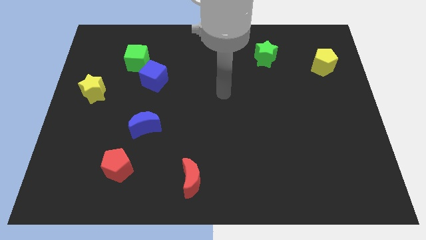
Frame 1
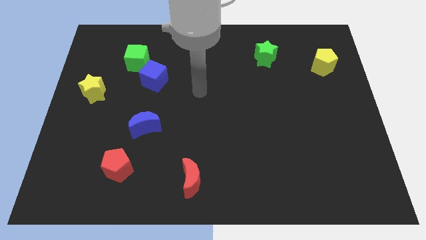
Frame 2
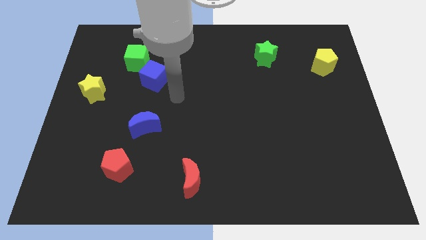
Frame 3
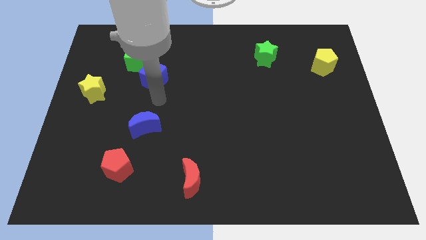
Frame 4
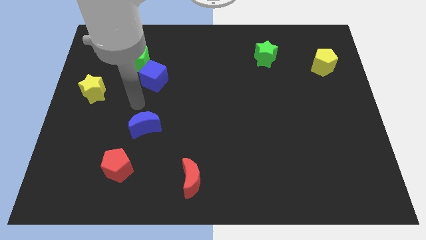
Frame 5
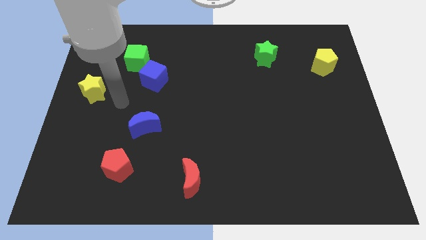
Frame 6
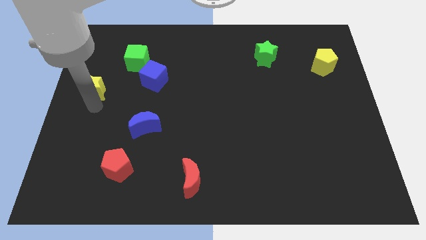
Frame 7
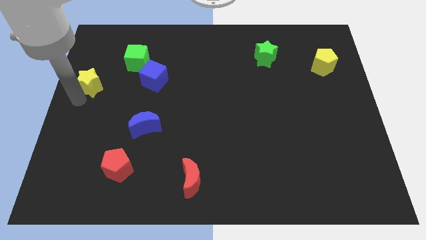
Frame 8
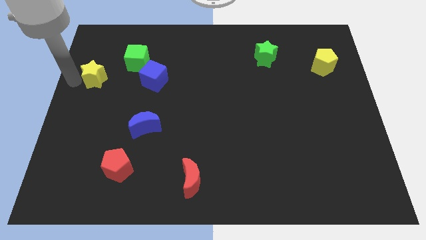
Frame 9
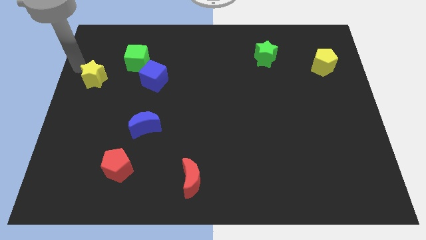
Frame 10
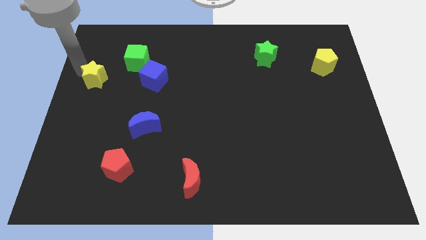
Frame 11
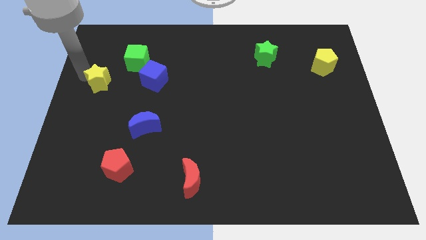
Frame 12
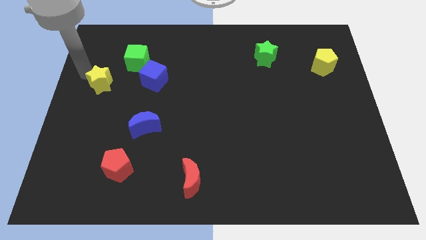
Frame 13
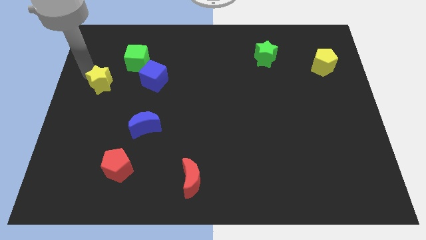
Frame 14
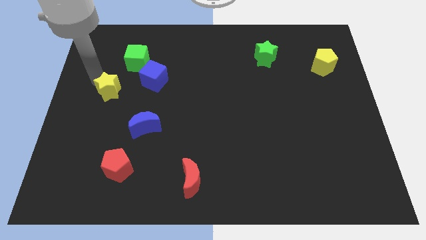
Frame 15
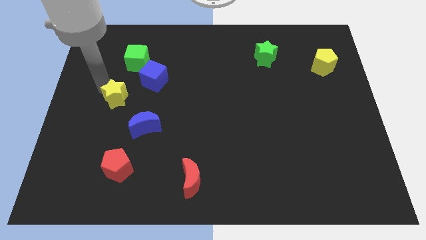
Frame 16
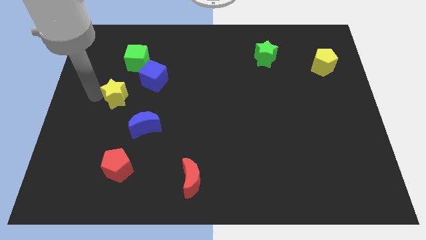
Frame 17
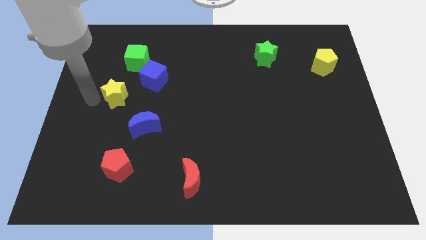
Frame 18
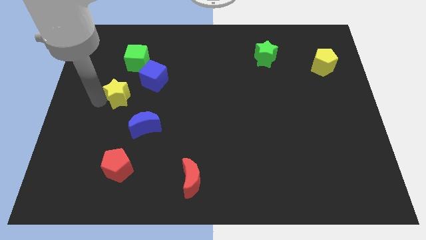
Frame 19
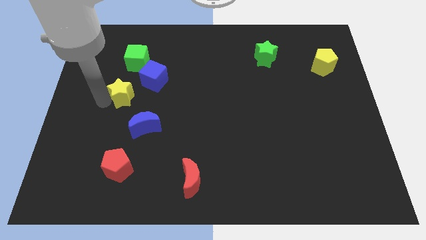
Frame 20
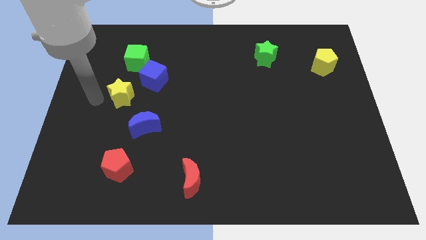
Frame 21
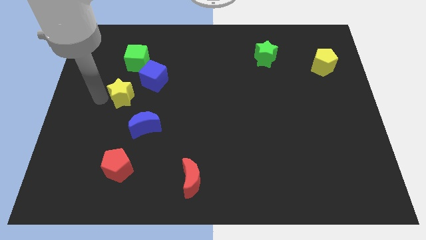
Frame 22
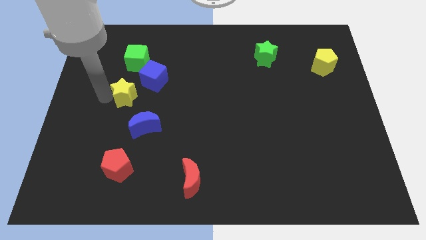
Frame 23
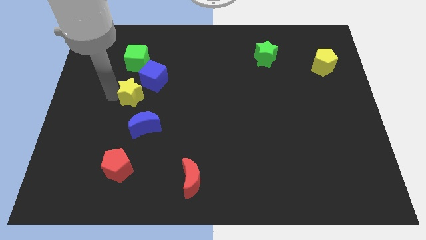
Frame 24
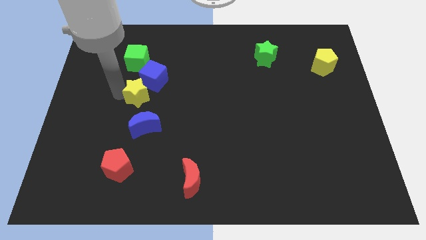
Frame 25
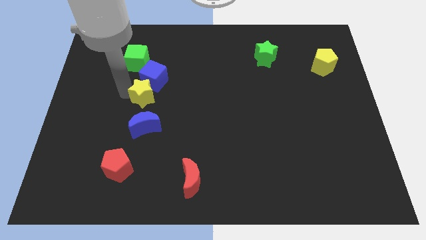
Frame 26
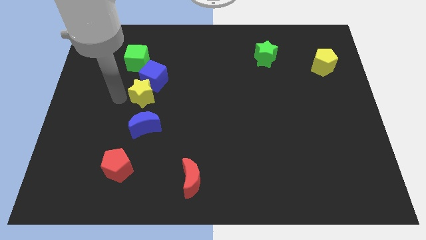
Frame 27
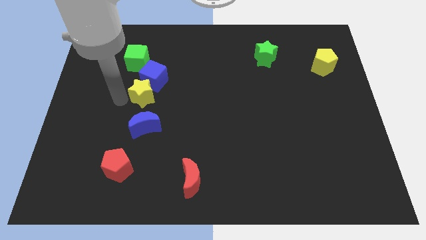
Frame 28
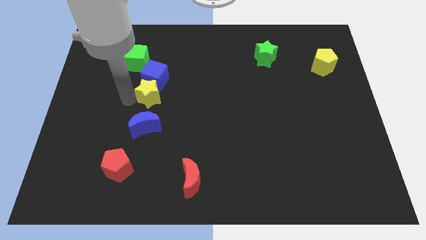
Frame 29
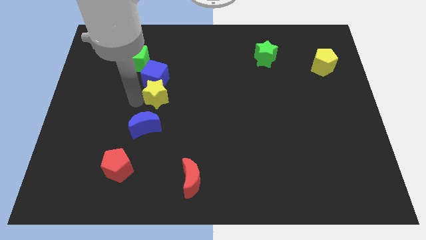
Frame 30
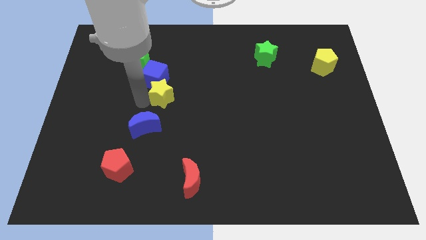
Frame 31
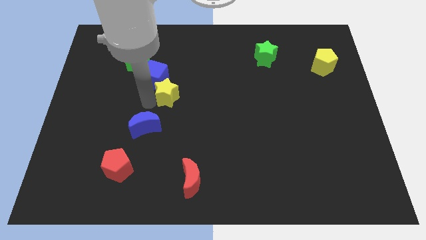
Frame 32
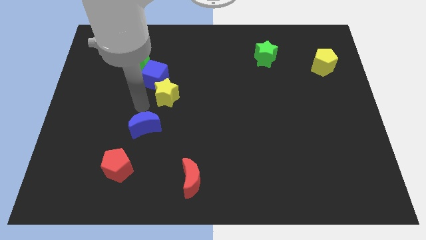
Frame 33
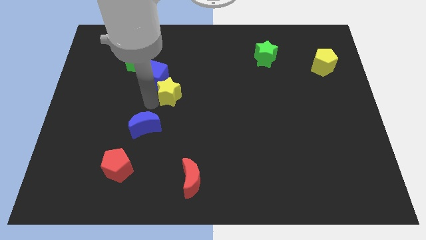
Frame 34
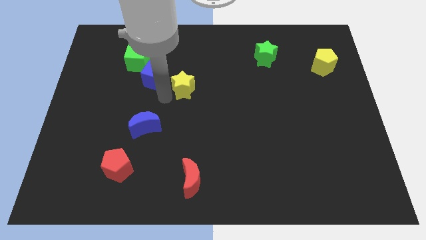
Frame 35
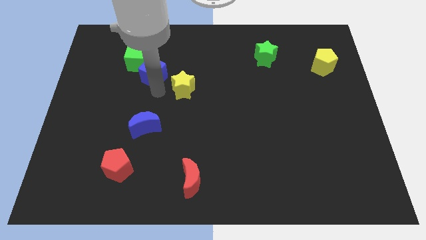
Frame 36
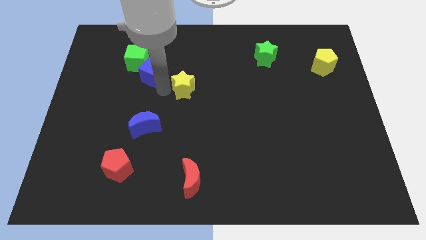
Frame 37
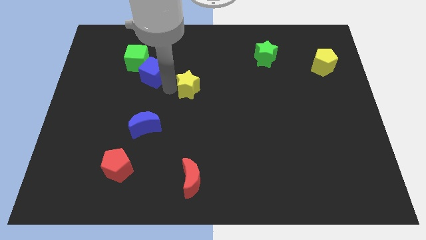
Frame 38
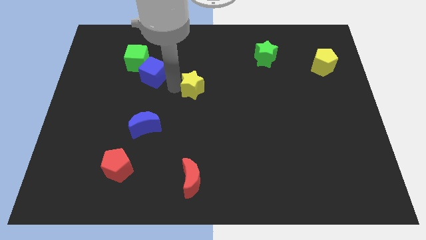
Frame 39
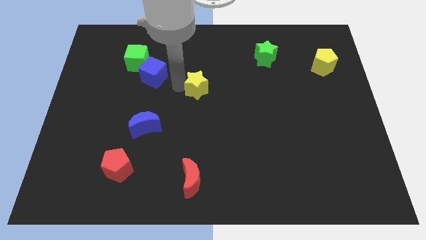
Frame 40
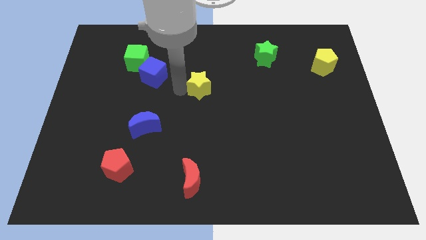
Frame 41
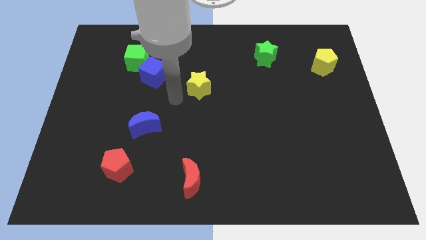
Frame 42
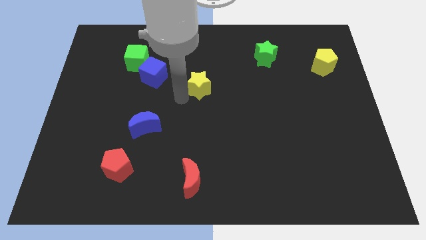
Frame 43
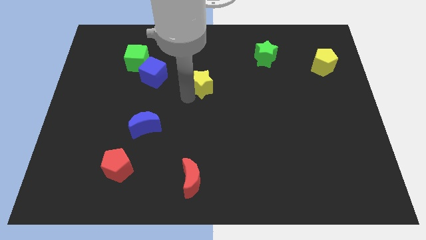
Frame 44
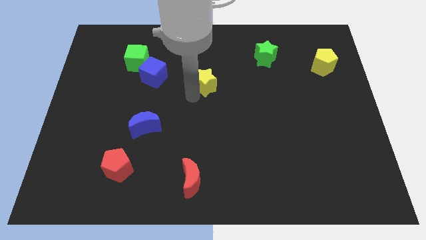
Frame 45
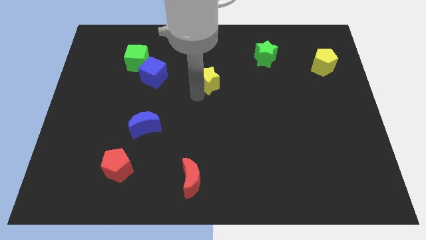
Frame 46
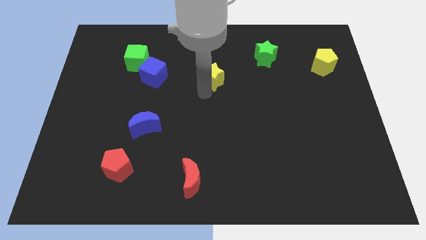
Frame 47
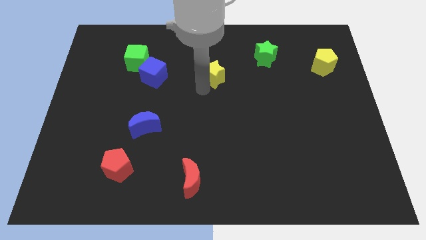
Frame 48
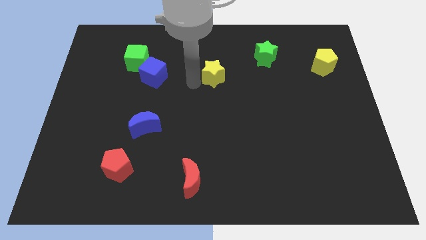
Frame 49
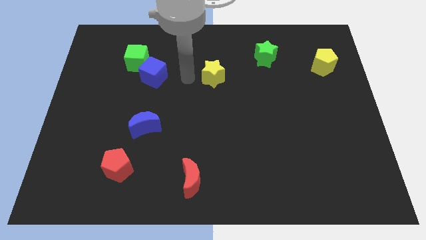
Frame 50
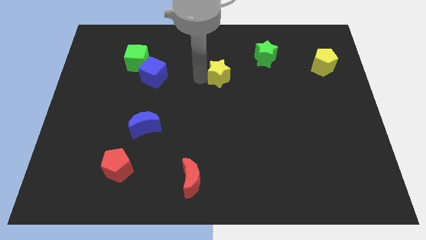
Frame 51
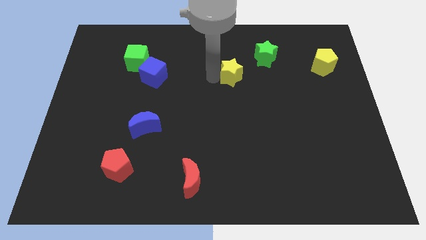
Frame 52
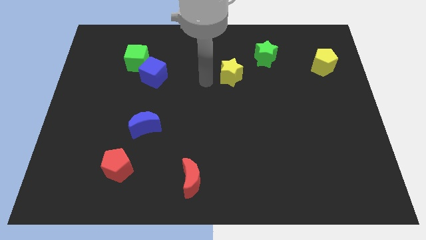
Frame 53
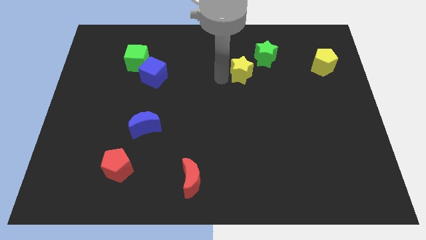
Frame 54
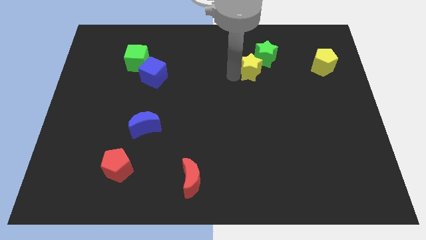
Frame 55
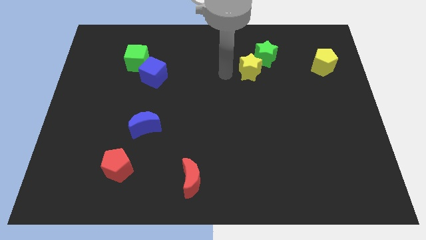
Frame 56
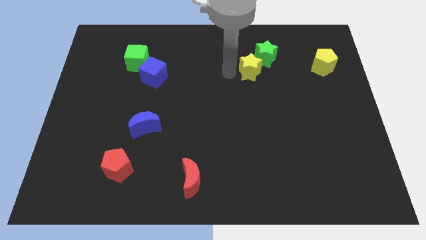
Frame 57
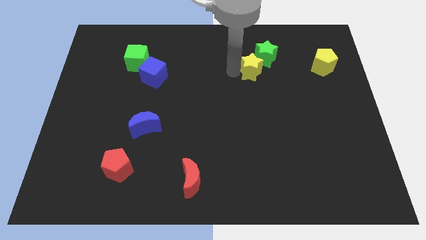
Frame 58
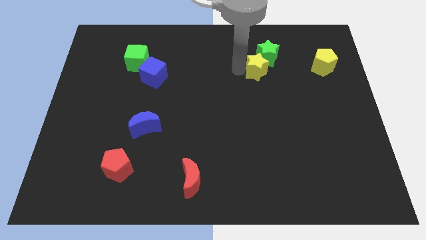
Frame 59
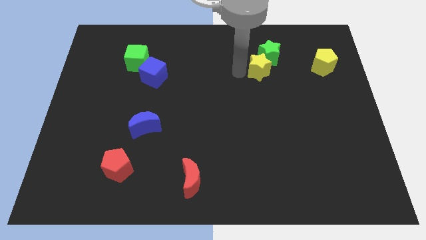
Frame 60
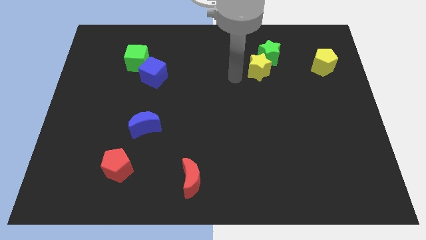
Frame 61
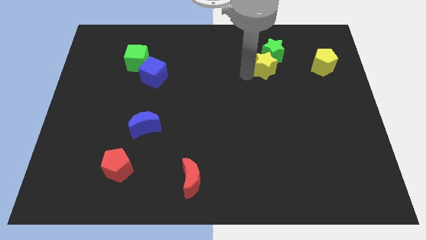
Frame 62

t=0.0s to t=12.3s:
put the yellow star just left of the yellow pentagon
